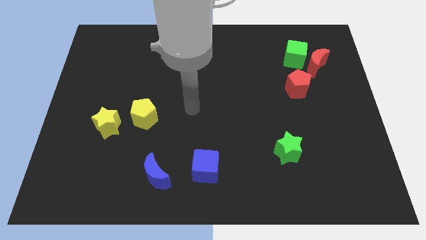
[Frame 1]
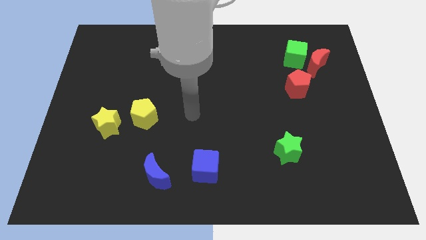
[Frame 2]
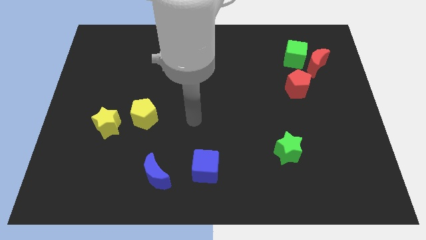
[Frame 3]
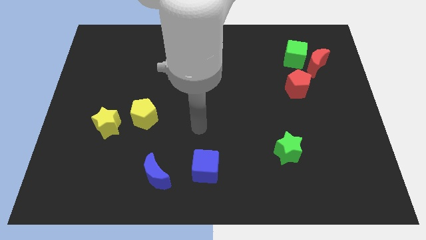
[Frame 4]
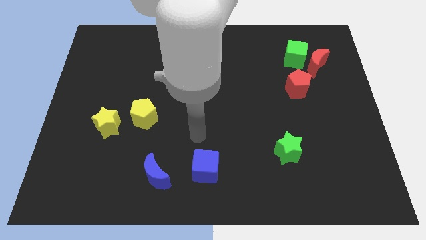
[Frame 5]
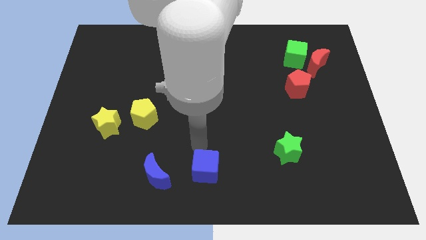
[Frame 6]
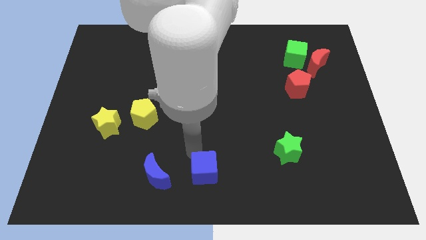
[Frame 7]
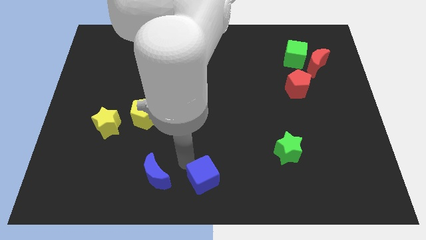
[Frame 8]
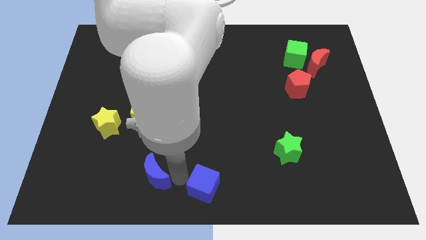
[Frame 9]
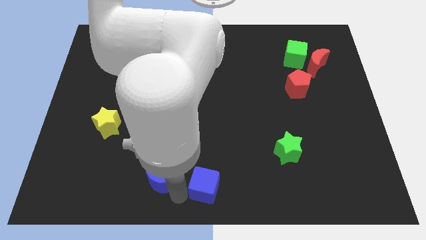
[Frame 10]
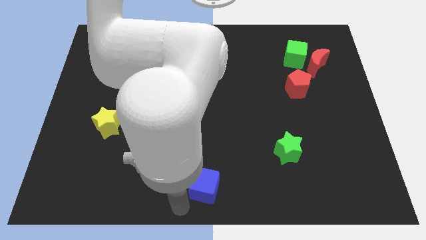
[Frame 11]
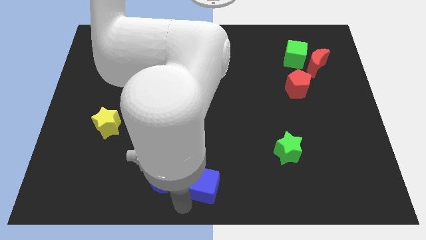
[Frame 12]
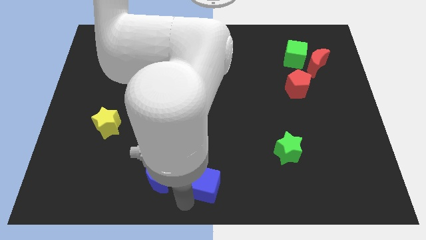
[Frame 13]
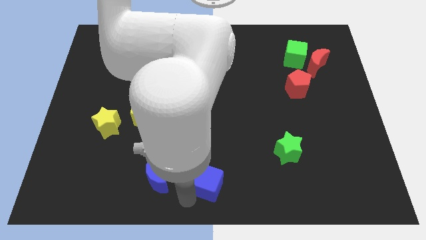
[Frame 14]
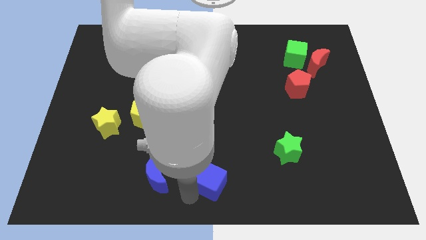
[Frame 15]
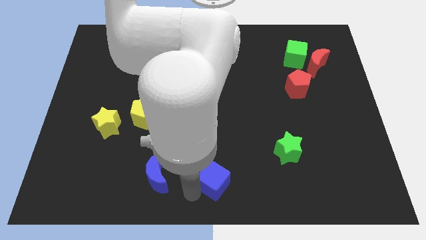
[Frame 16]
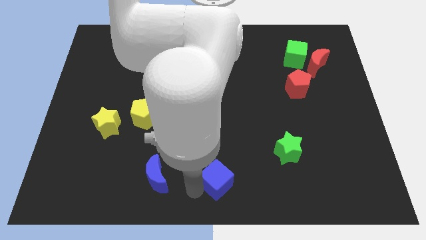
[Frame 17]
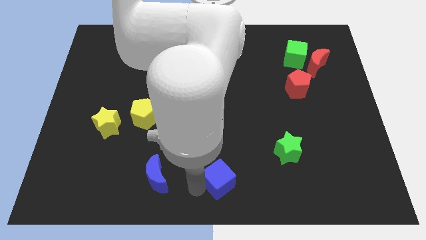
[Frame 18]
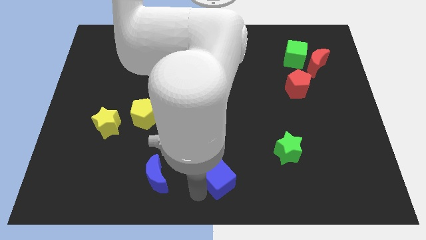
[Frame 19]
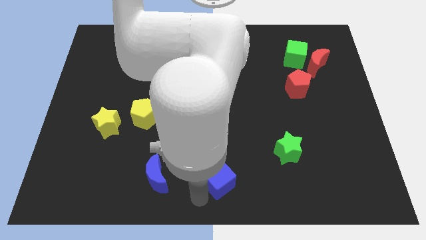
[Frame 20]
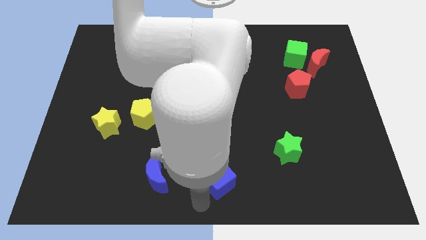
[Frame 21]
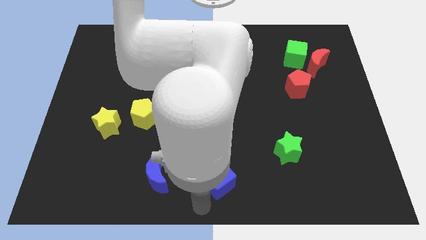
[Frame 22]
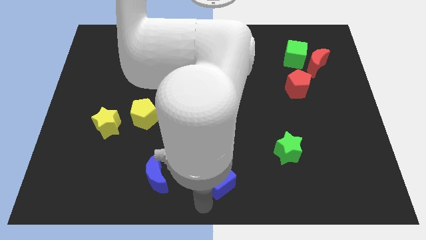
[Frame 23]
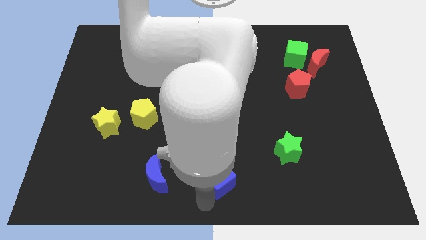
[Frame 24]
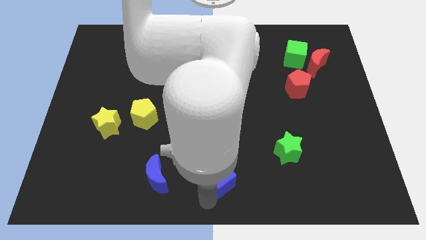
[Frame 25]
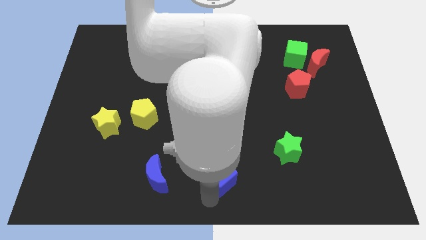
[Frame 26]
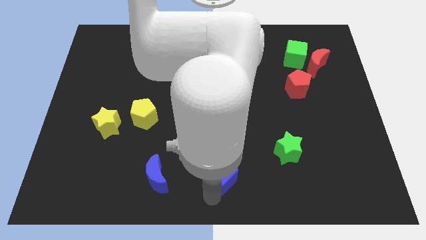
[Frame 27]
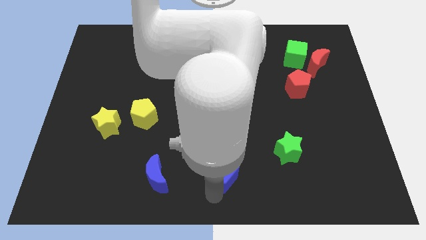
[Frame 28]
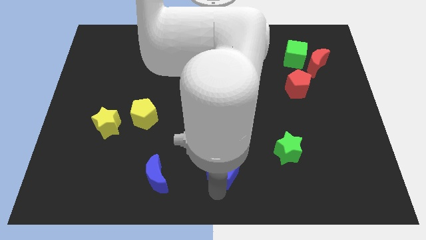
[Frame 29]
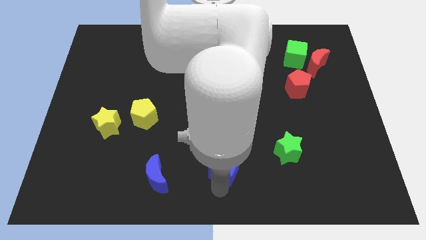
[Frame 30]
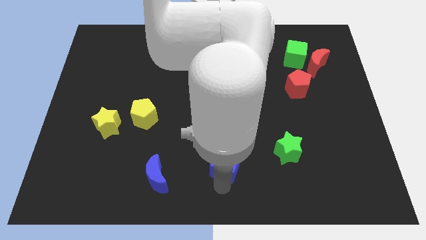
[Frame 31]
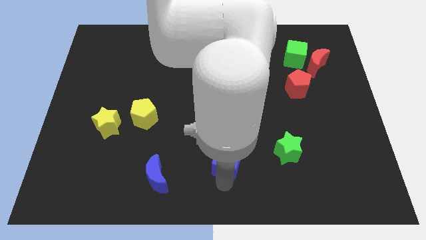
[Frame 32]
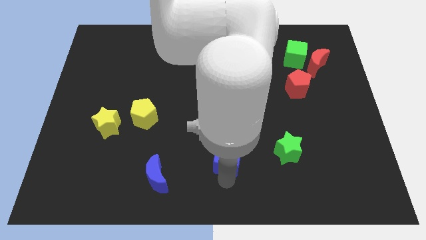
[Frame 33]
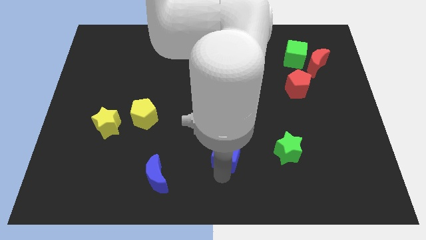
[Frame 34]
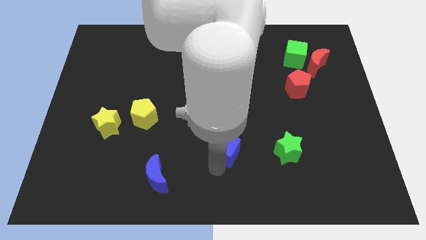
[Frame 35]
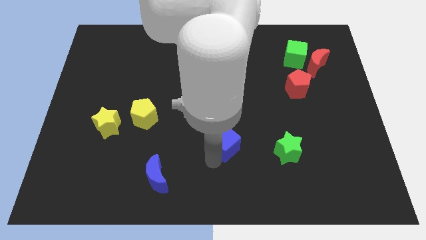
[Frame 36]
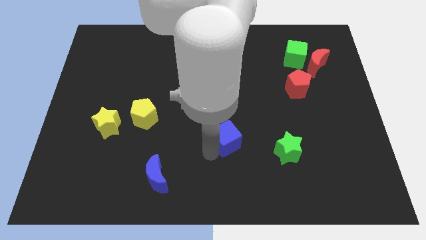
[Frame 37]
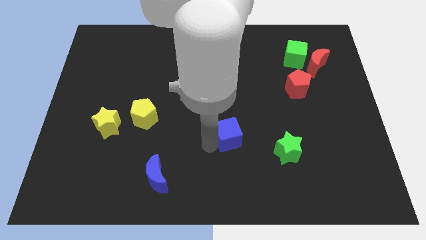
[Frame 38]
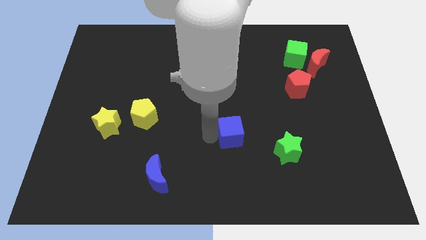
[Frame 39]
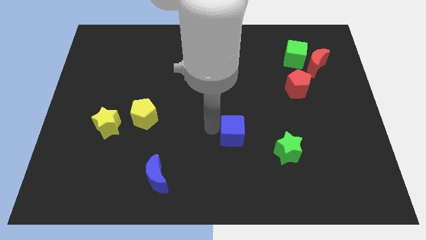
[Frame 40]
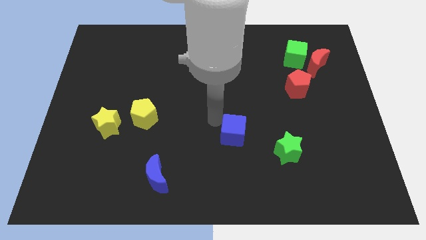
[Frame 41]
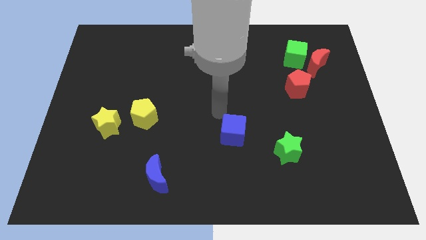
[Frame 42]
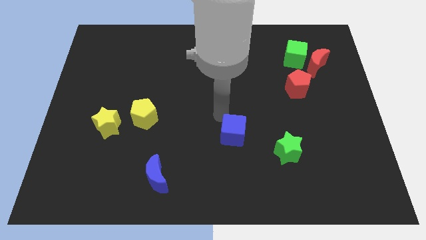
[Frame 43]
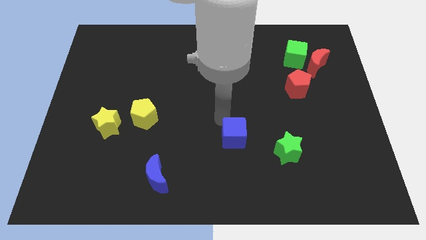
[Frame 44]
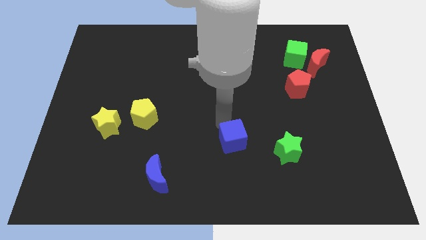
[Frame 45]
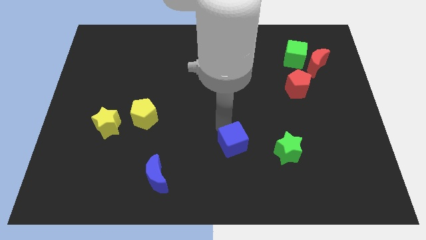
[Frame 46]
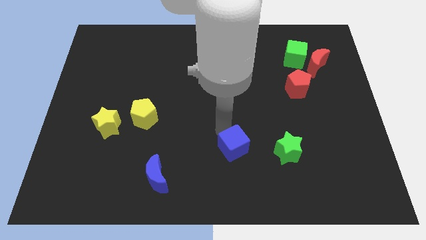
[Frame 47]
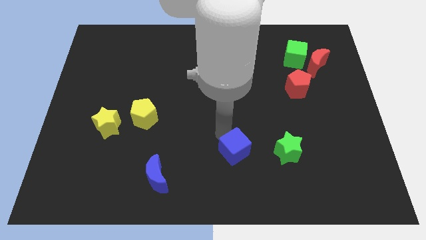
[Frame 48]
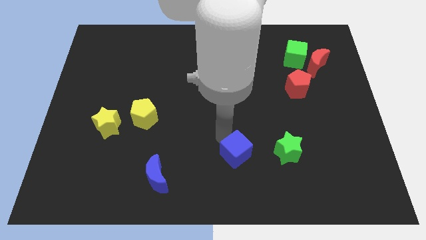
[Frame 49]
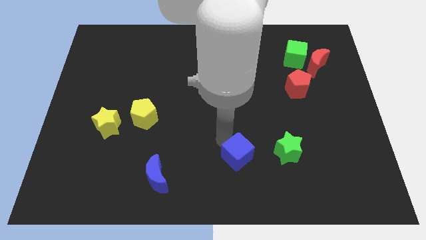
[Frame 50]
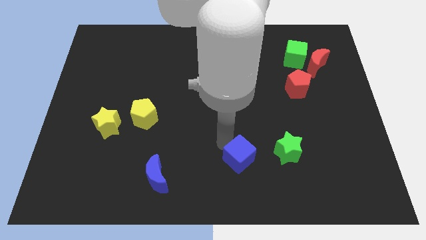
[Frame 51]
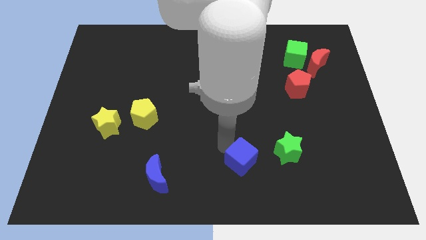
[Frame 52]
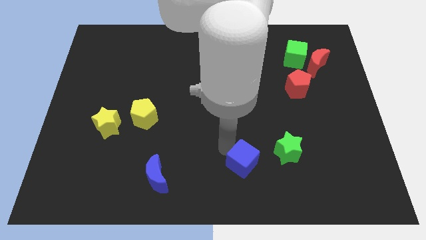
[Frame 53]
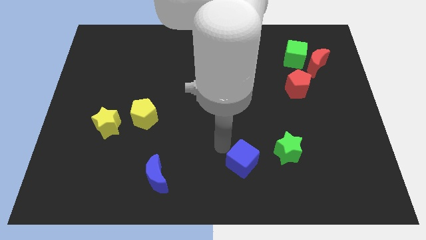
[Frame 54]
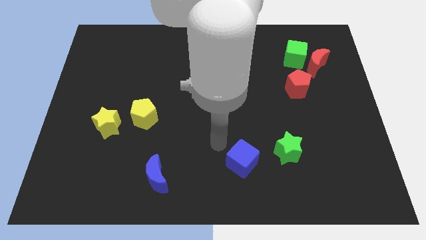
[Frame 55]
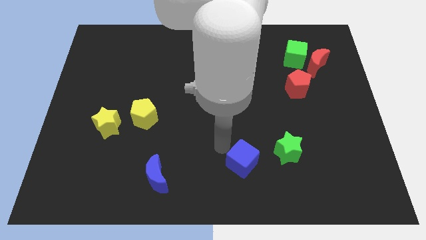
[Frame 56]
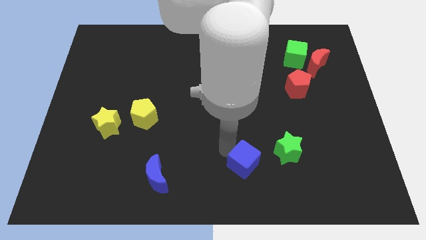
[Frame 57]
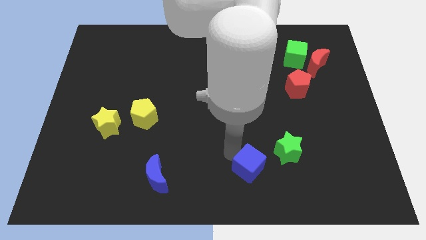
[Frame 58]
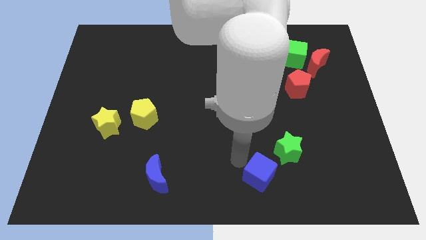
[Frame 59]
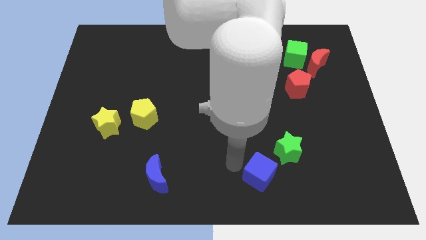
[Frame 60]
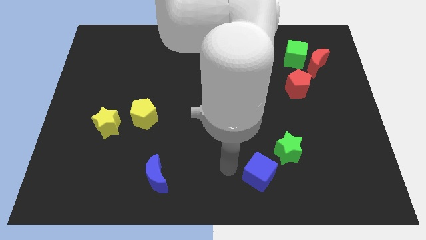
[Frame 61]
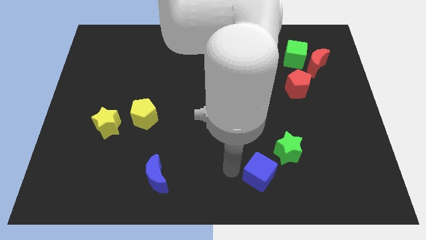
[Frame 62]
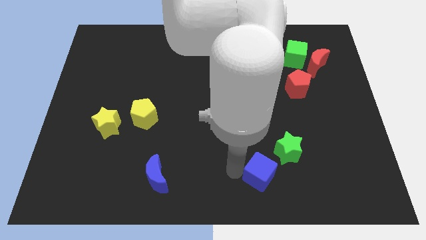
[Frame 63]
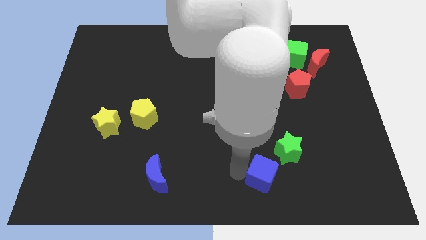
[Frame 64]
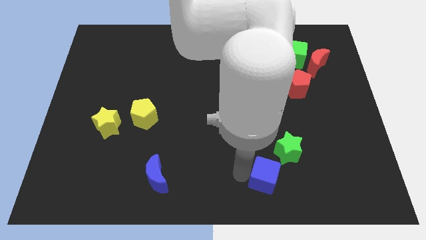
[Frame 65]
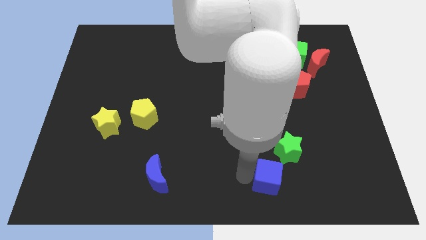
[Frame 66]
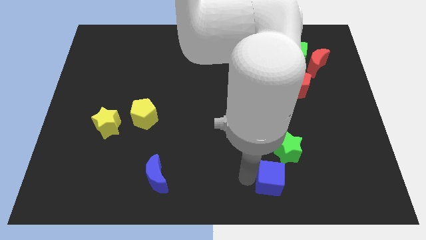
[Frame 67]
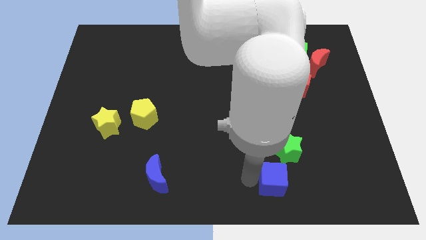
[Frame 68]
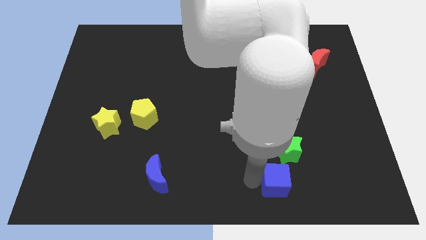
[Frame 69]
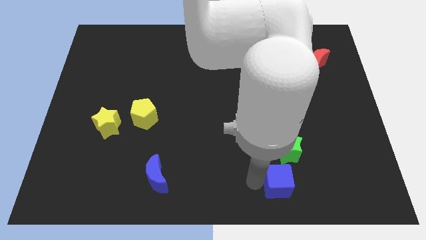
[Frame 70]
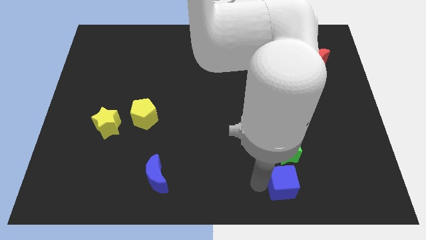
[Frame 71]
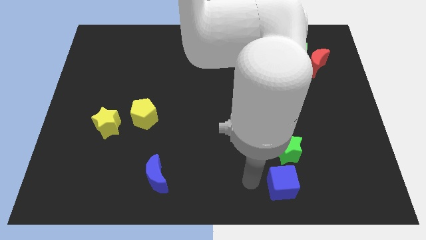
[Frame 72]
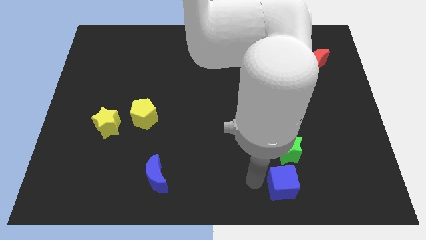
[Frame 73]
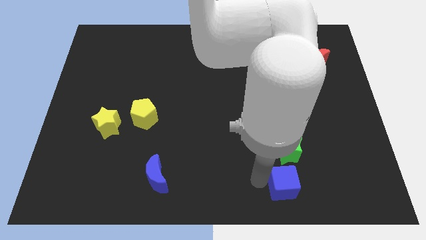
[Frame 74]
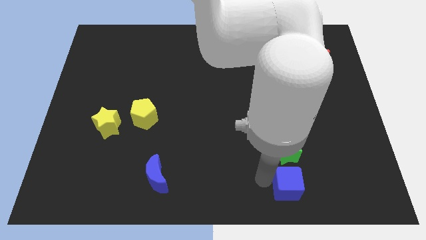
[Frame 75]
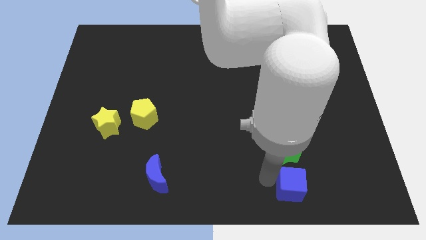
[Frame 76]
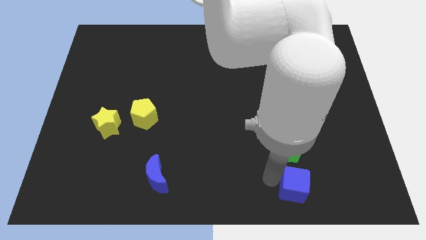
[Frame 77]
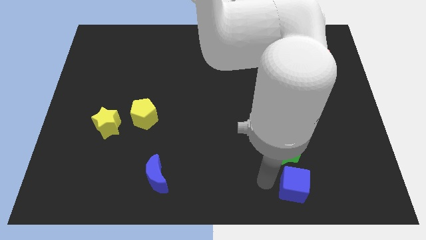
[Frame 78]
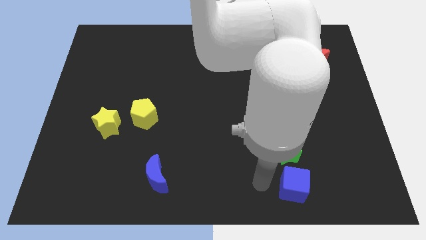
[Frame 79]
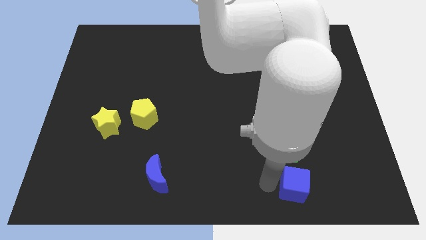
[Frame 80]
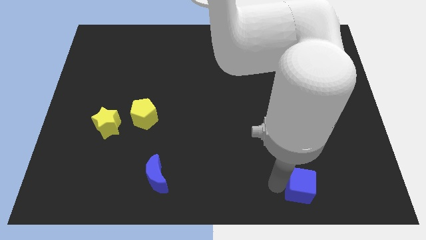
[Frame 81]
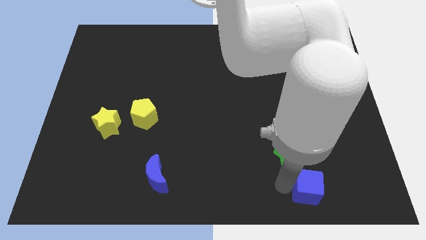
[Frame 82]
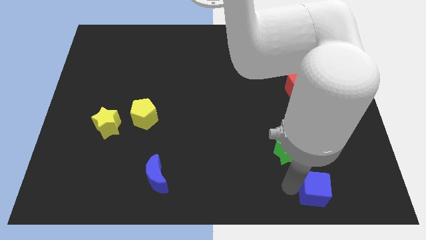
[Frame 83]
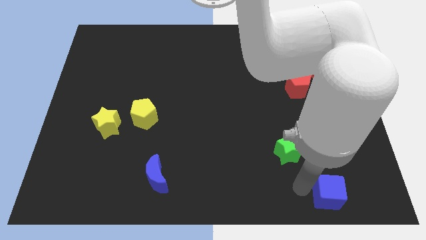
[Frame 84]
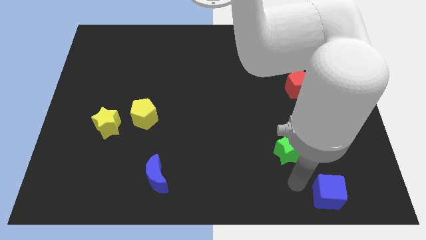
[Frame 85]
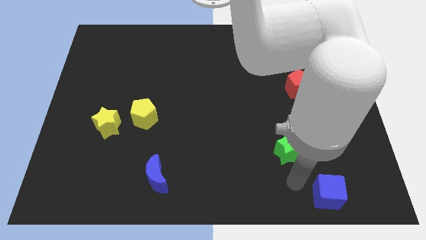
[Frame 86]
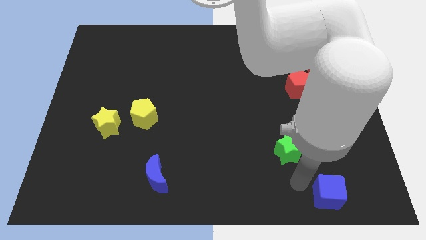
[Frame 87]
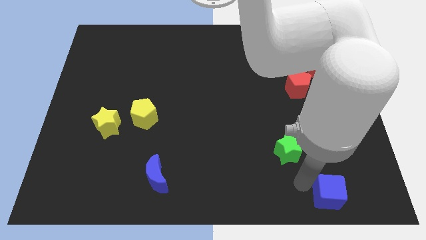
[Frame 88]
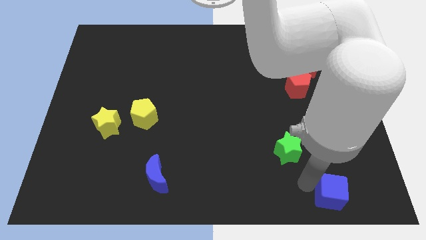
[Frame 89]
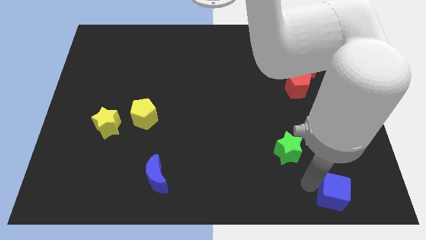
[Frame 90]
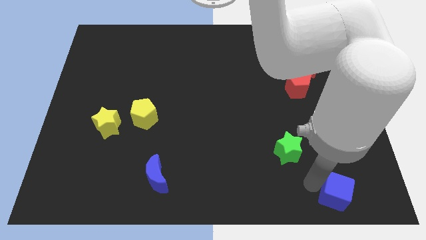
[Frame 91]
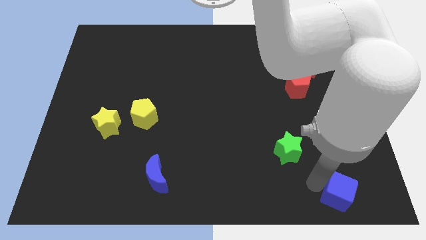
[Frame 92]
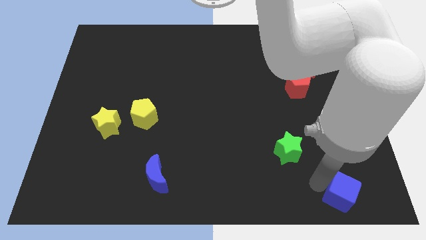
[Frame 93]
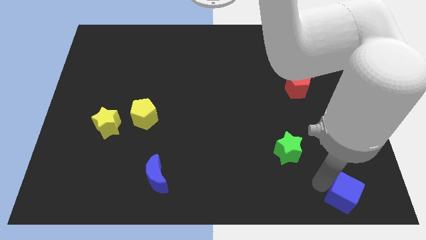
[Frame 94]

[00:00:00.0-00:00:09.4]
push the blue cube to the bottom right
